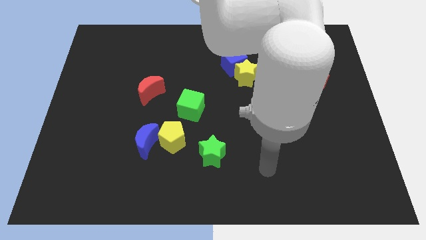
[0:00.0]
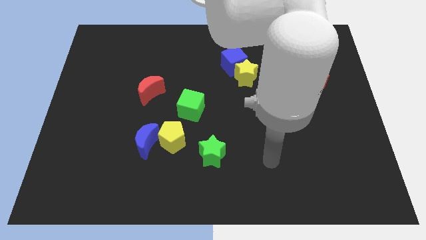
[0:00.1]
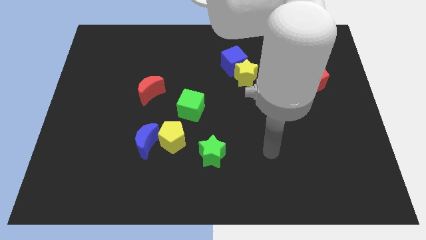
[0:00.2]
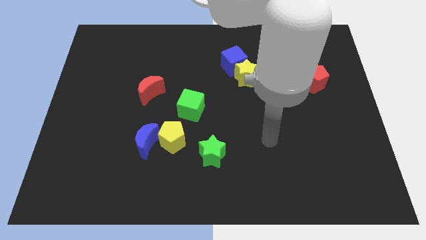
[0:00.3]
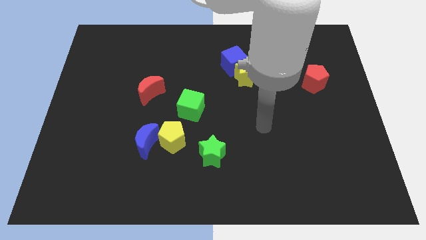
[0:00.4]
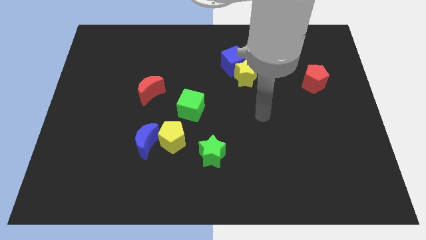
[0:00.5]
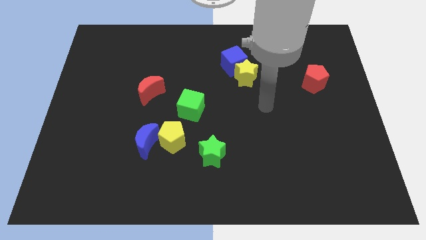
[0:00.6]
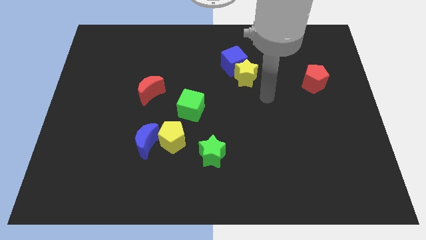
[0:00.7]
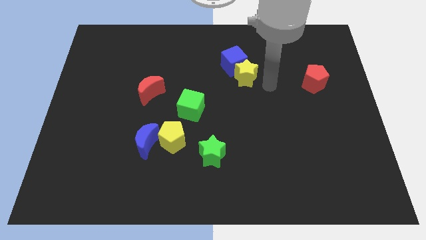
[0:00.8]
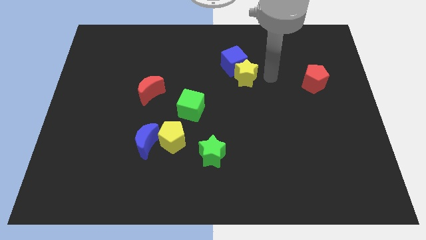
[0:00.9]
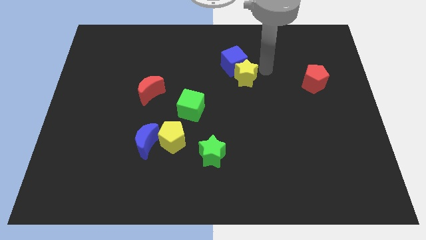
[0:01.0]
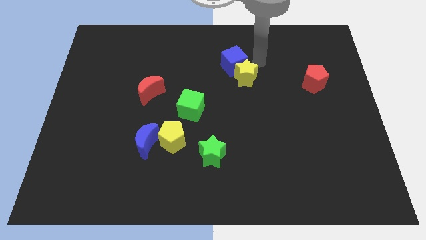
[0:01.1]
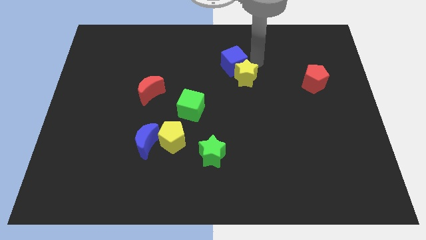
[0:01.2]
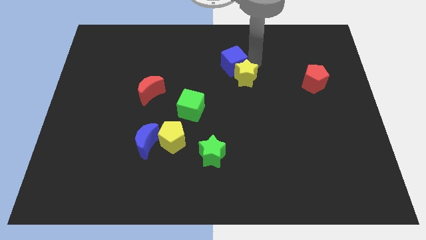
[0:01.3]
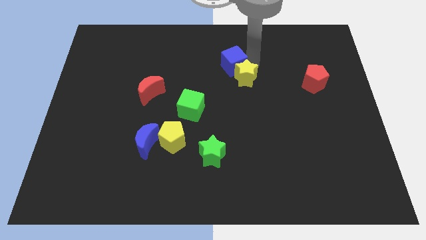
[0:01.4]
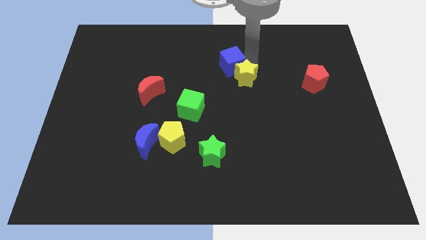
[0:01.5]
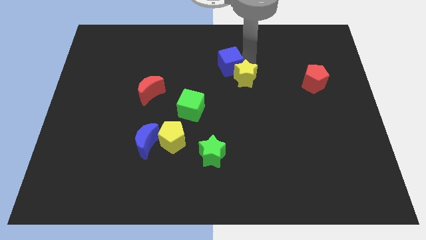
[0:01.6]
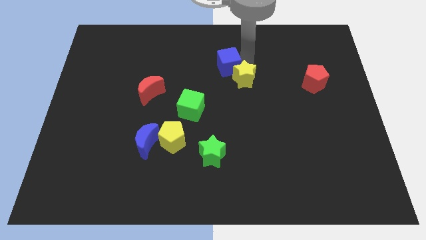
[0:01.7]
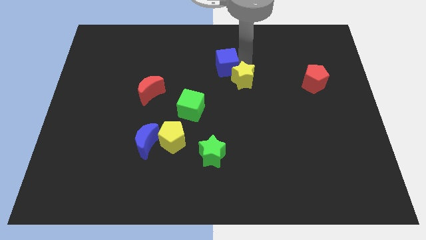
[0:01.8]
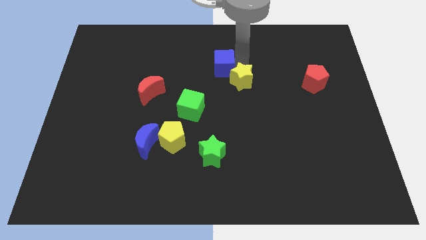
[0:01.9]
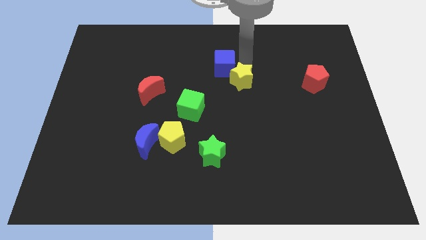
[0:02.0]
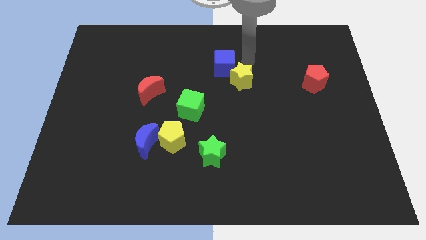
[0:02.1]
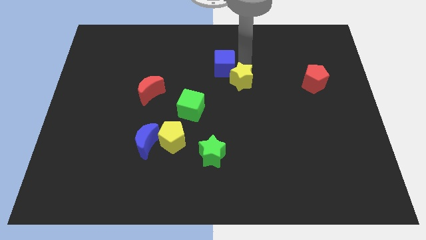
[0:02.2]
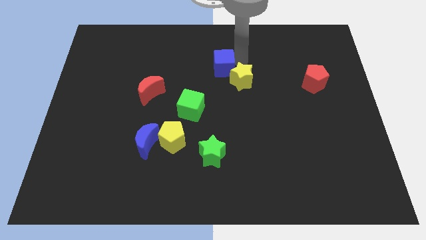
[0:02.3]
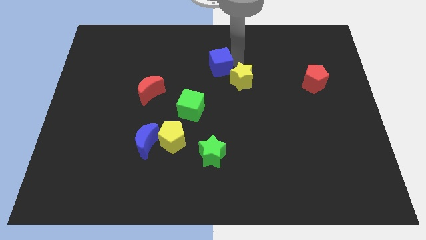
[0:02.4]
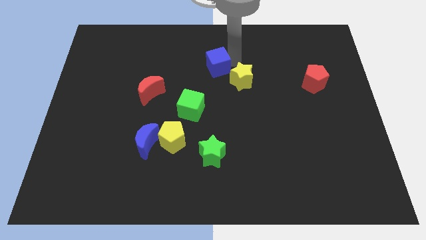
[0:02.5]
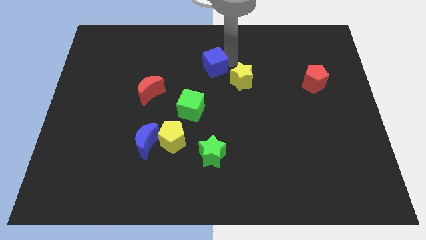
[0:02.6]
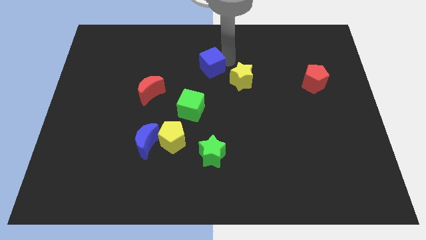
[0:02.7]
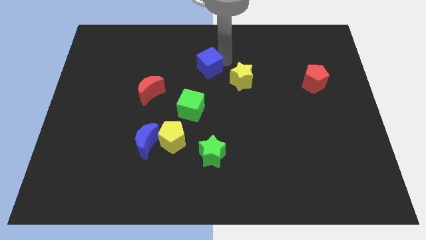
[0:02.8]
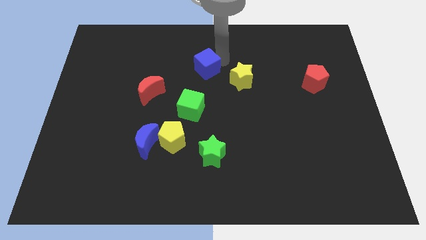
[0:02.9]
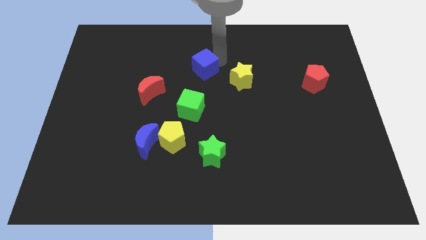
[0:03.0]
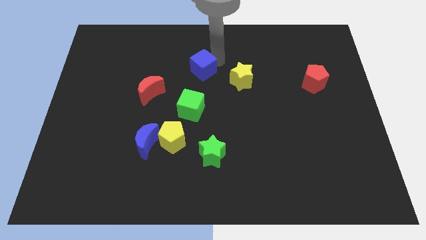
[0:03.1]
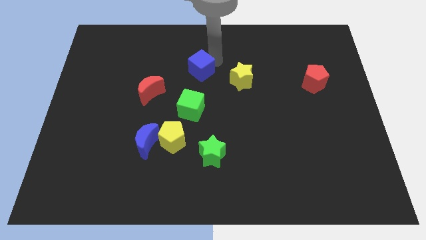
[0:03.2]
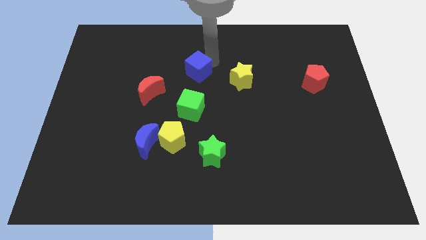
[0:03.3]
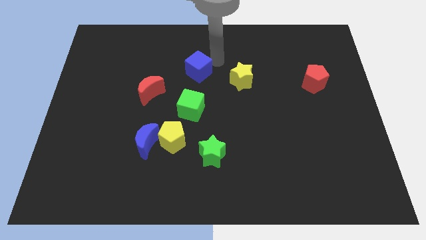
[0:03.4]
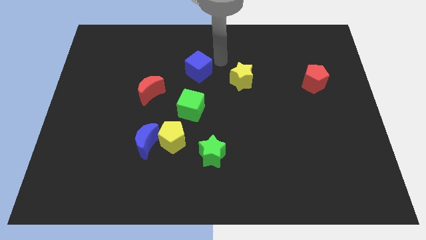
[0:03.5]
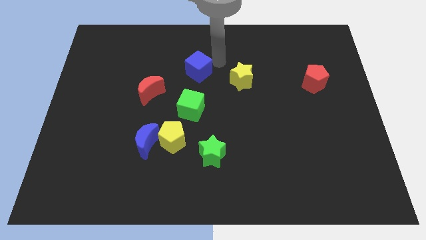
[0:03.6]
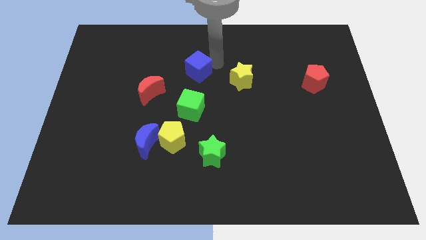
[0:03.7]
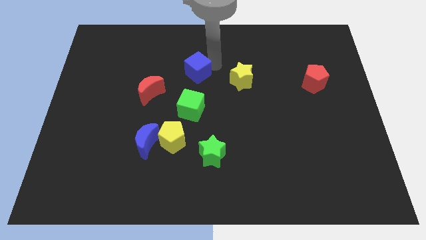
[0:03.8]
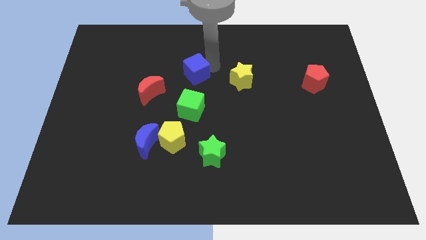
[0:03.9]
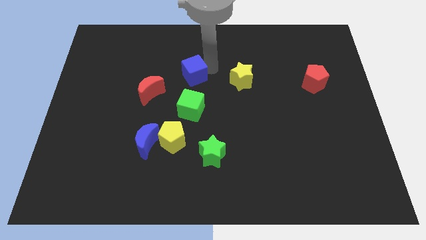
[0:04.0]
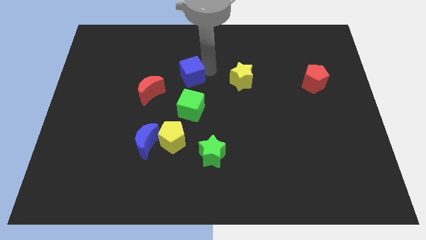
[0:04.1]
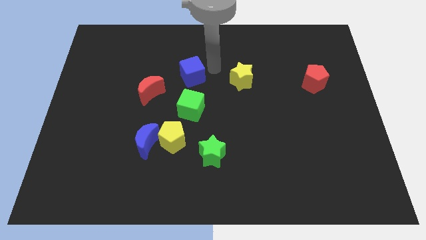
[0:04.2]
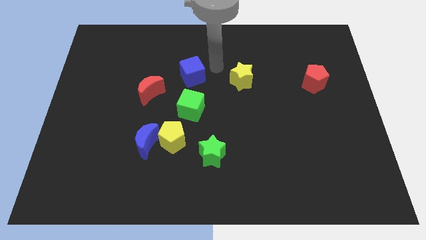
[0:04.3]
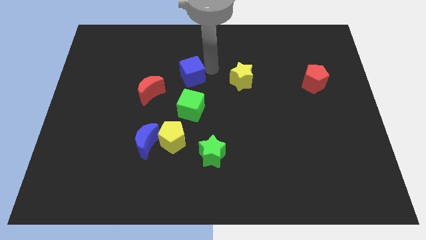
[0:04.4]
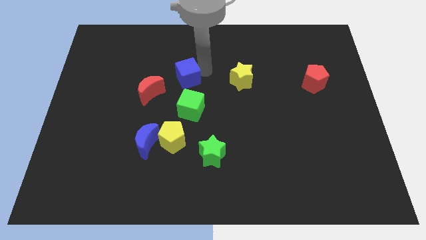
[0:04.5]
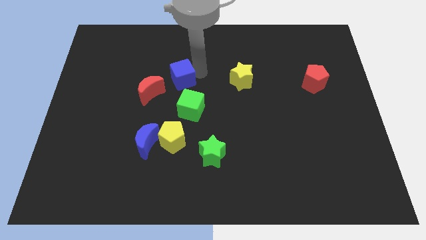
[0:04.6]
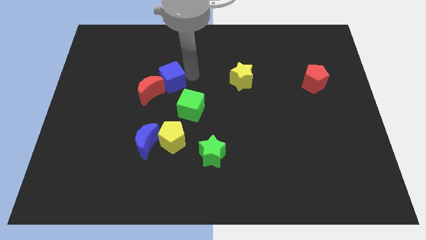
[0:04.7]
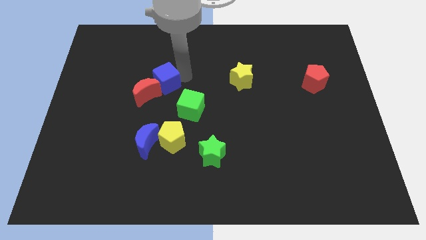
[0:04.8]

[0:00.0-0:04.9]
push the blue cube to the red moon

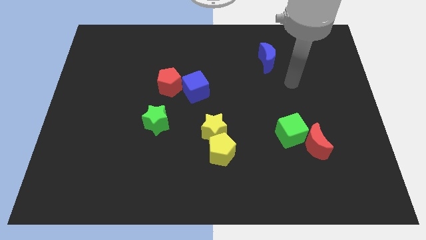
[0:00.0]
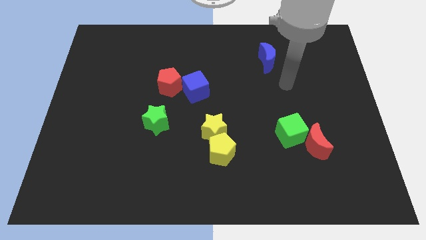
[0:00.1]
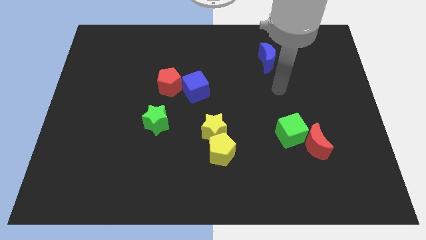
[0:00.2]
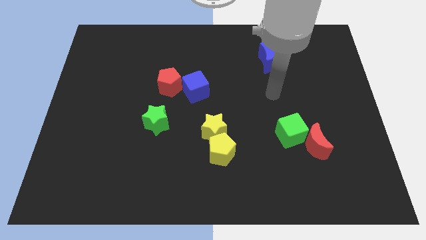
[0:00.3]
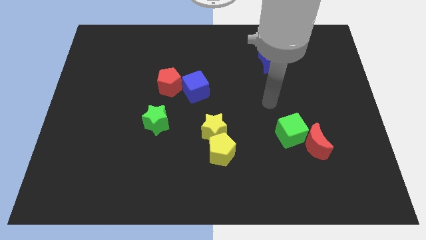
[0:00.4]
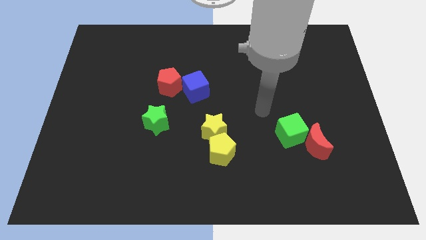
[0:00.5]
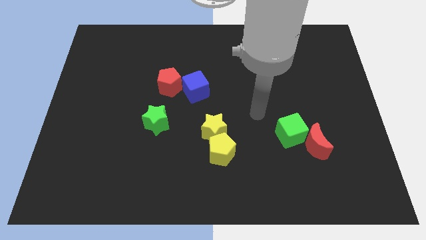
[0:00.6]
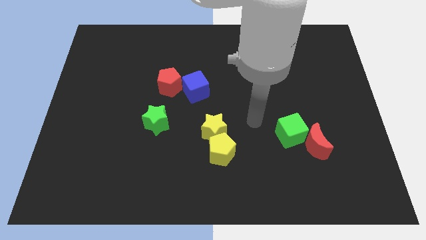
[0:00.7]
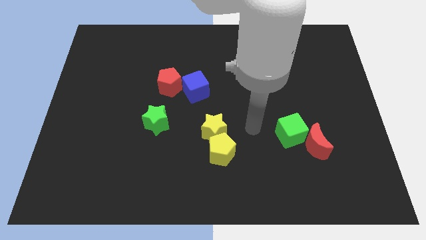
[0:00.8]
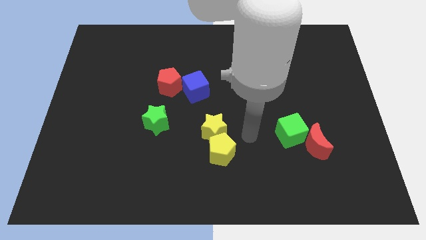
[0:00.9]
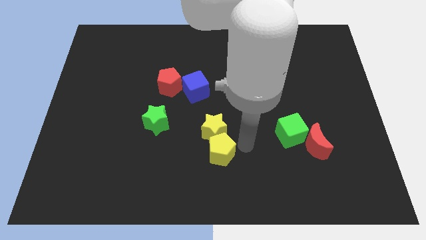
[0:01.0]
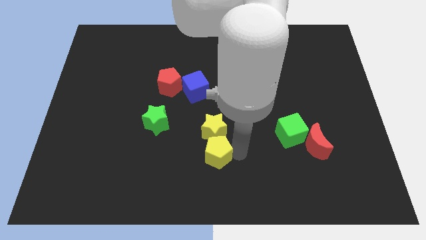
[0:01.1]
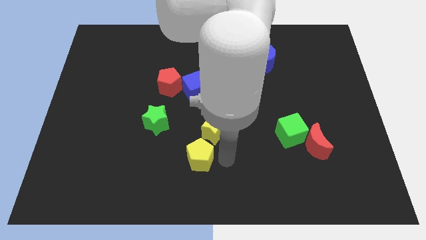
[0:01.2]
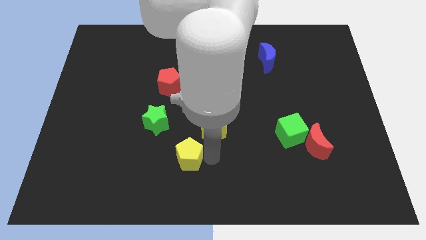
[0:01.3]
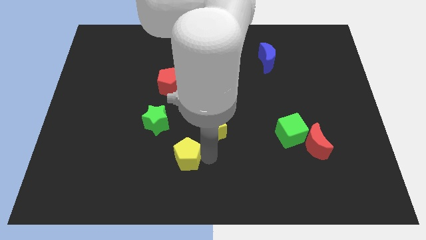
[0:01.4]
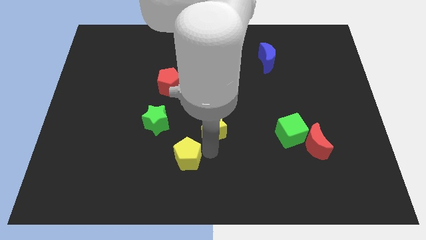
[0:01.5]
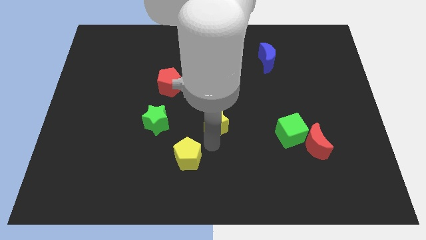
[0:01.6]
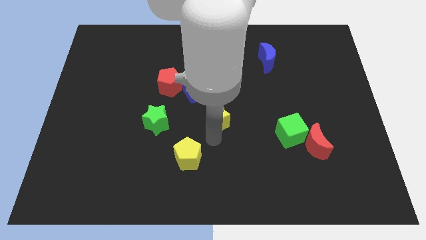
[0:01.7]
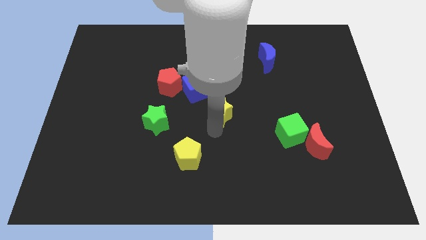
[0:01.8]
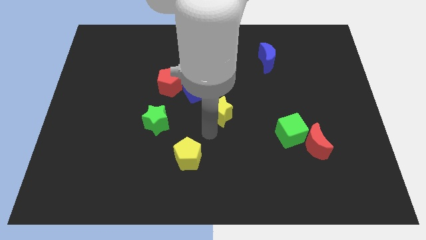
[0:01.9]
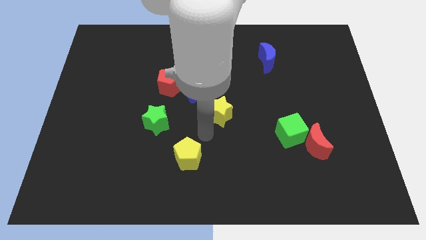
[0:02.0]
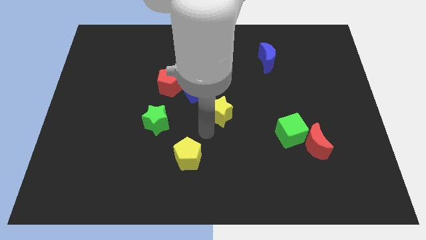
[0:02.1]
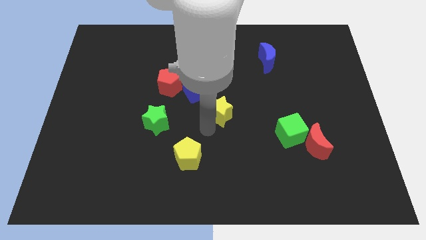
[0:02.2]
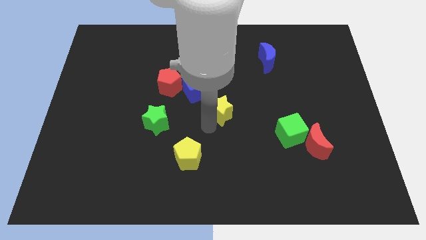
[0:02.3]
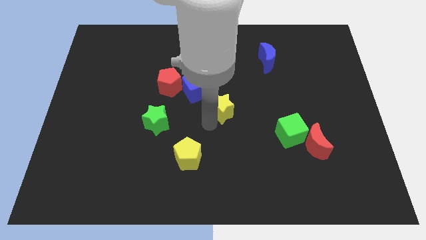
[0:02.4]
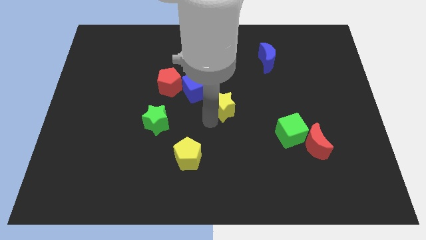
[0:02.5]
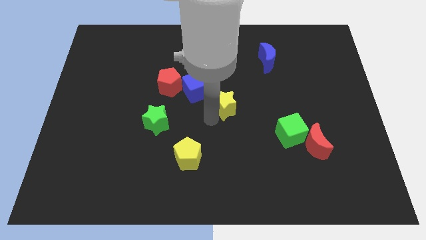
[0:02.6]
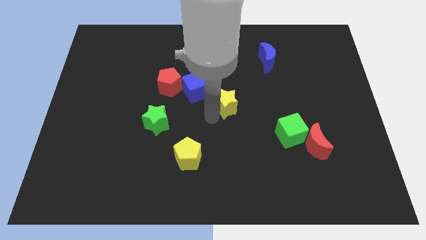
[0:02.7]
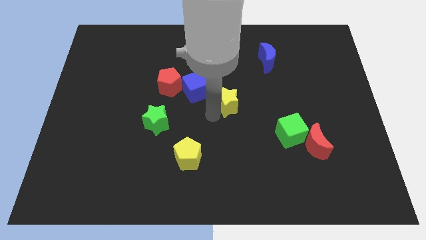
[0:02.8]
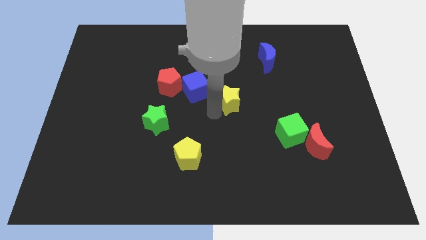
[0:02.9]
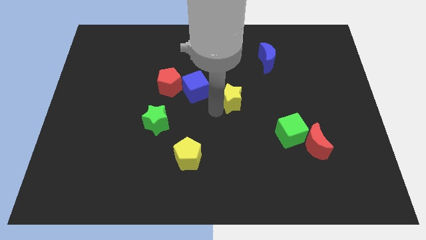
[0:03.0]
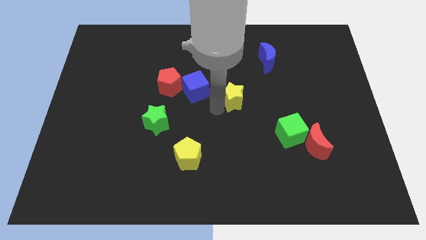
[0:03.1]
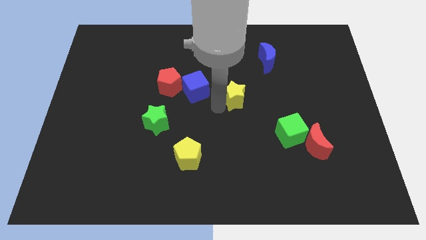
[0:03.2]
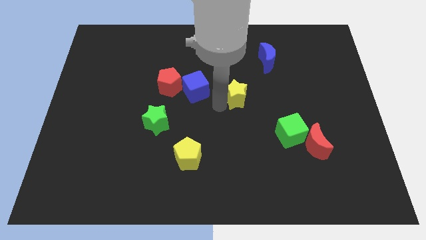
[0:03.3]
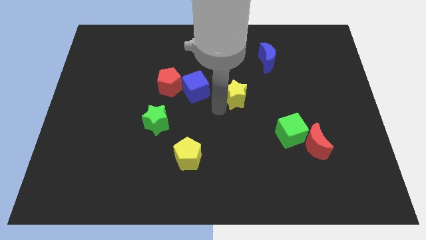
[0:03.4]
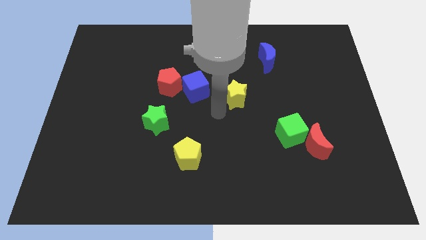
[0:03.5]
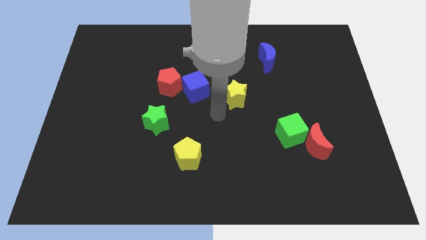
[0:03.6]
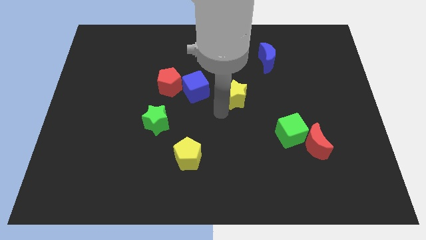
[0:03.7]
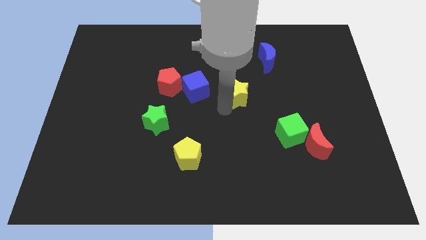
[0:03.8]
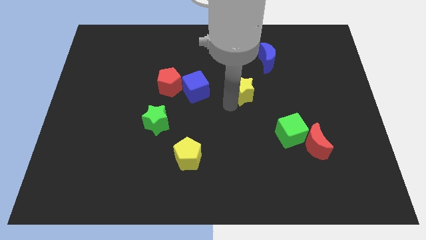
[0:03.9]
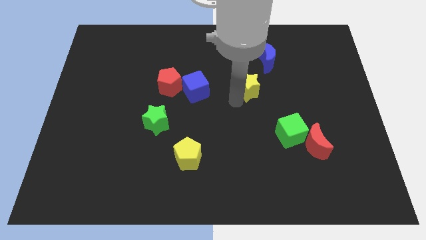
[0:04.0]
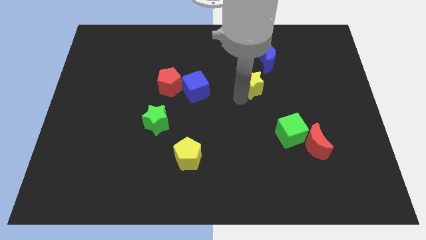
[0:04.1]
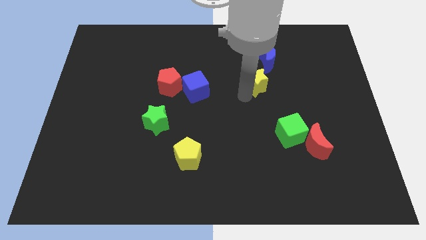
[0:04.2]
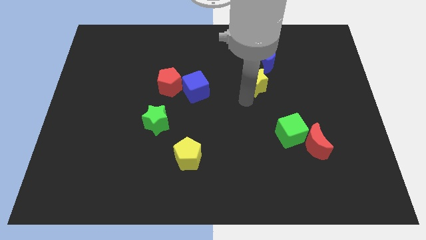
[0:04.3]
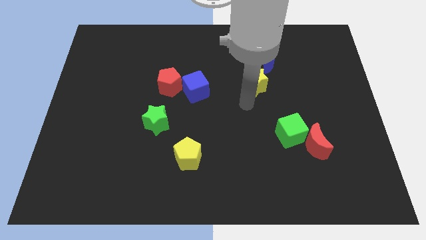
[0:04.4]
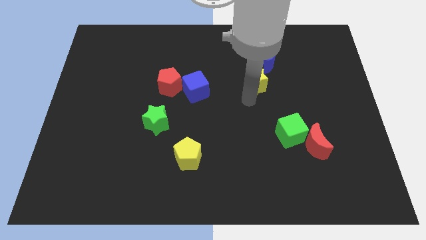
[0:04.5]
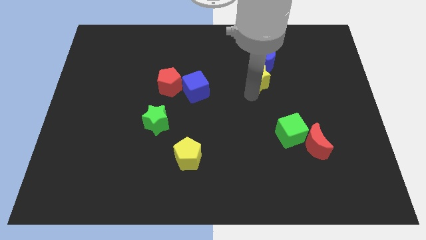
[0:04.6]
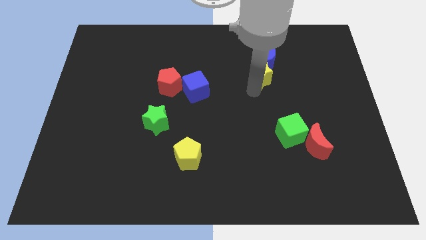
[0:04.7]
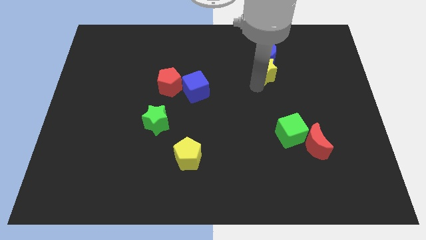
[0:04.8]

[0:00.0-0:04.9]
push the yellow star next to the blue moon
